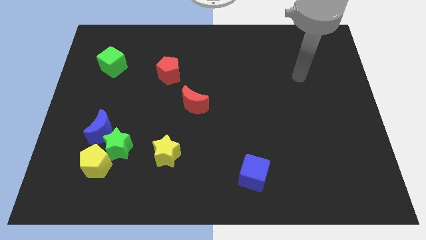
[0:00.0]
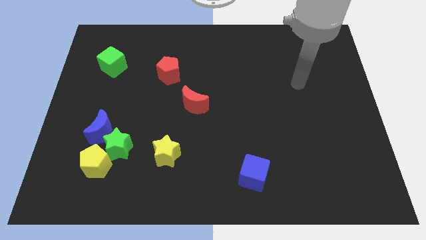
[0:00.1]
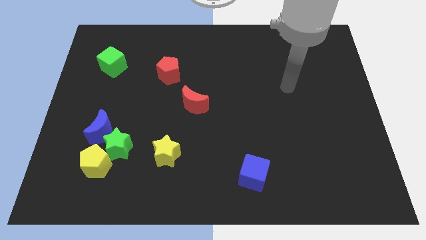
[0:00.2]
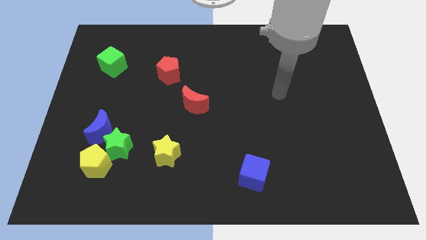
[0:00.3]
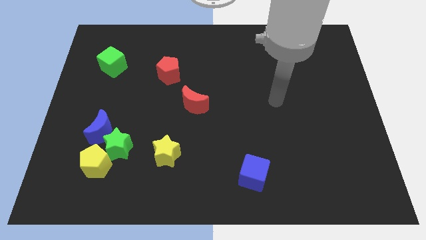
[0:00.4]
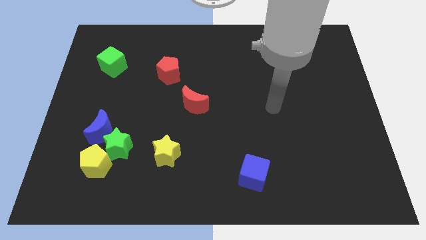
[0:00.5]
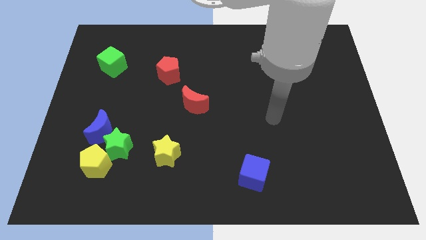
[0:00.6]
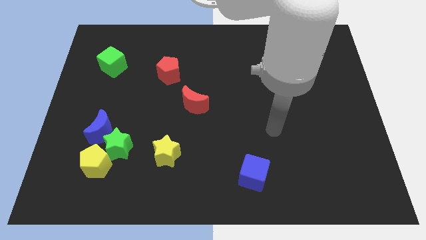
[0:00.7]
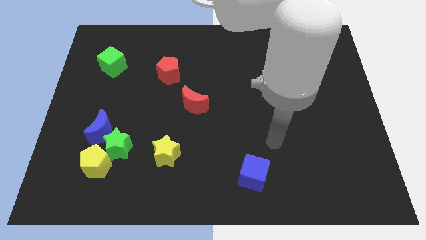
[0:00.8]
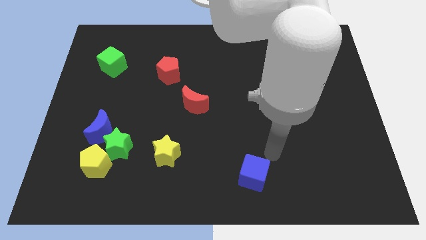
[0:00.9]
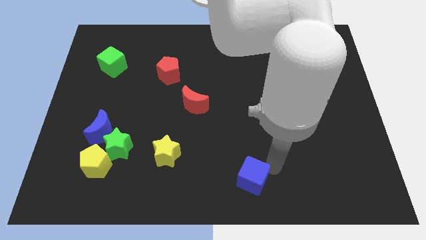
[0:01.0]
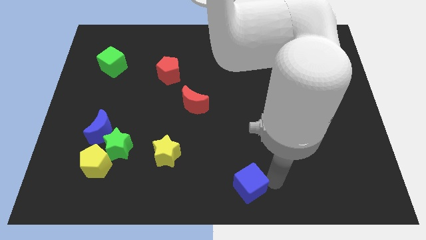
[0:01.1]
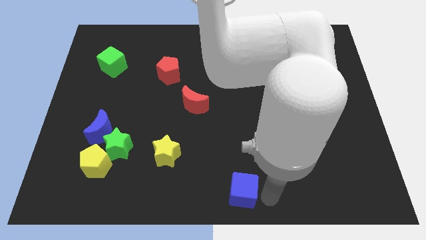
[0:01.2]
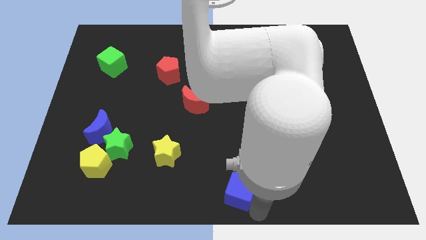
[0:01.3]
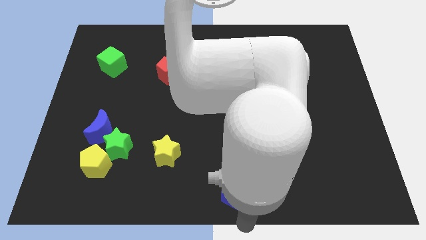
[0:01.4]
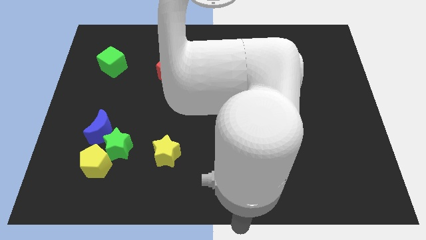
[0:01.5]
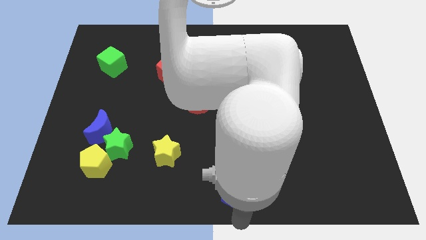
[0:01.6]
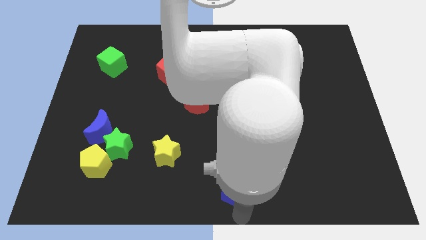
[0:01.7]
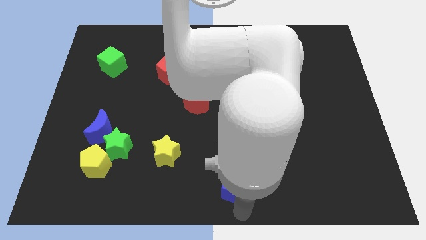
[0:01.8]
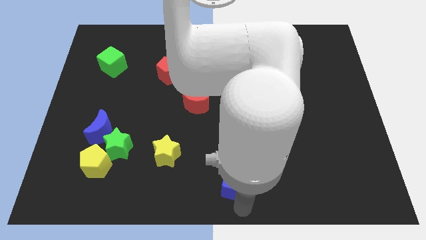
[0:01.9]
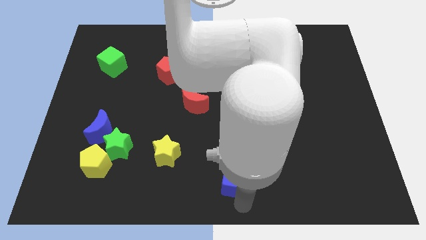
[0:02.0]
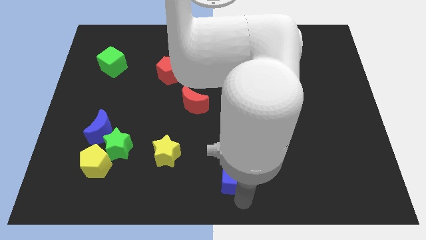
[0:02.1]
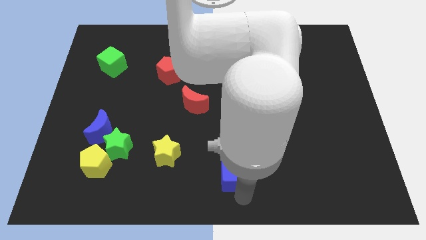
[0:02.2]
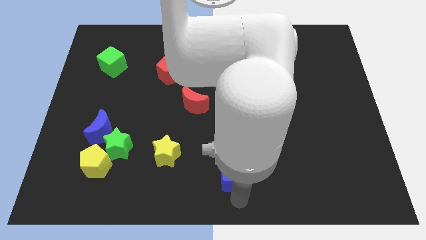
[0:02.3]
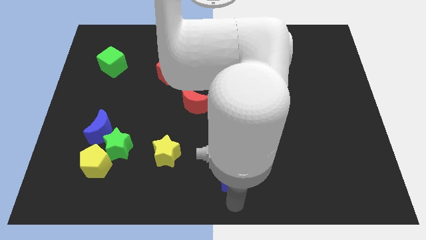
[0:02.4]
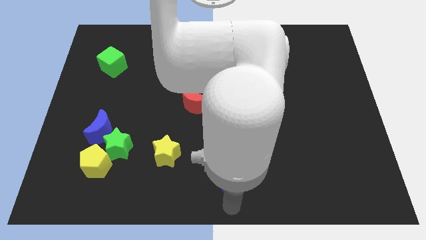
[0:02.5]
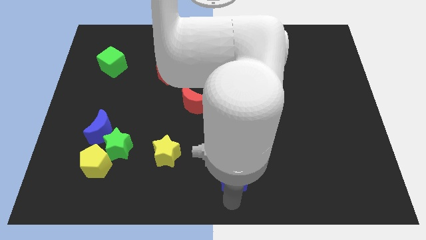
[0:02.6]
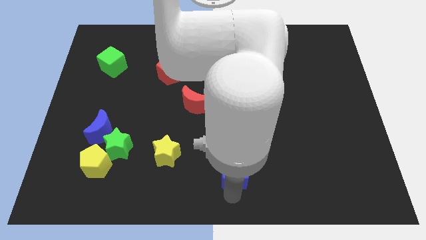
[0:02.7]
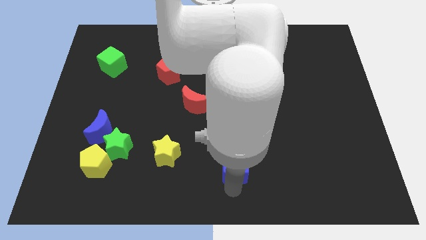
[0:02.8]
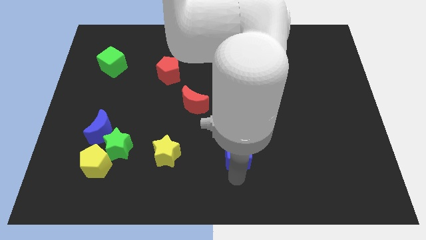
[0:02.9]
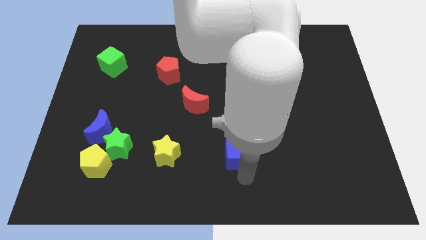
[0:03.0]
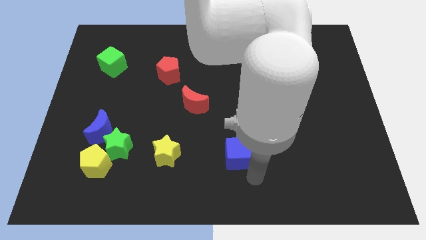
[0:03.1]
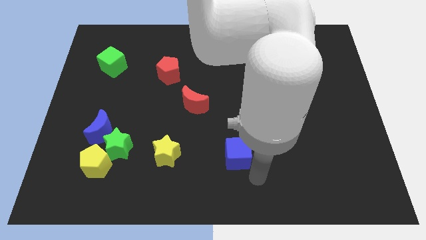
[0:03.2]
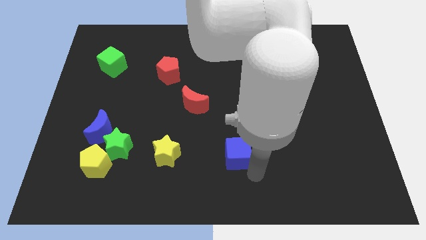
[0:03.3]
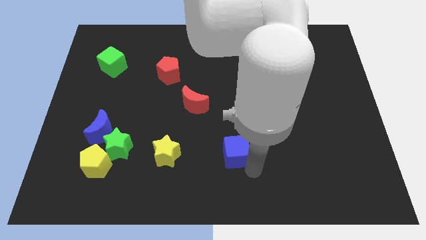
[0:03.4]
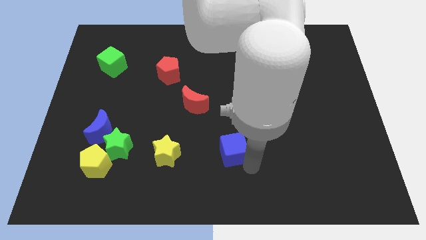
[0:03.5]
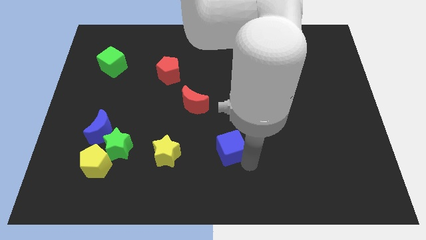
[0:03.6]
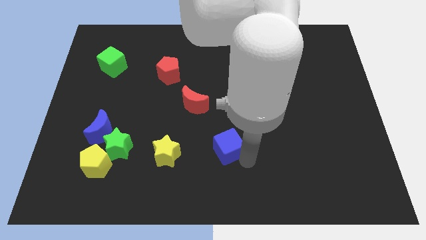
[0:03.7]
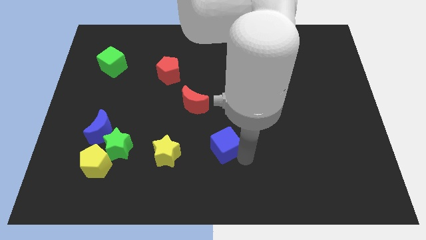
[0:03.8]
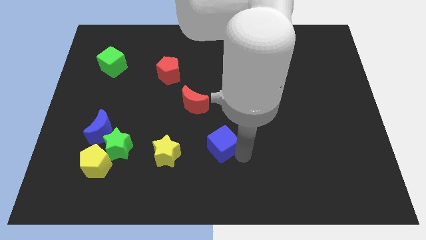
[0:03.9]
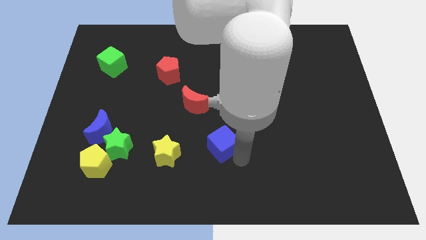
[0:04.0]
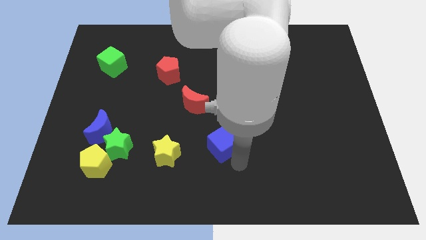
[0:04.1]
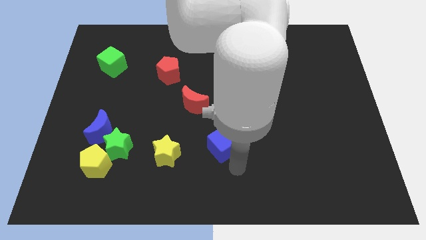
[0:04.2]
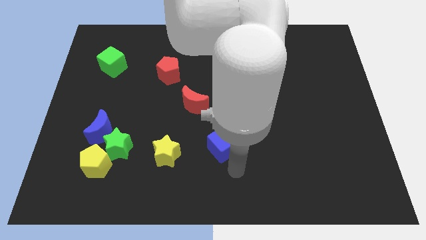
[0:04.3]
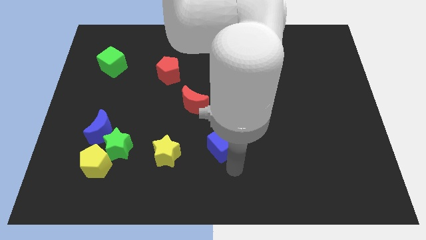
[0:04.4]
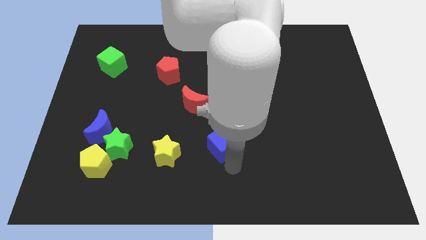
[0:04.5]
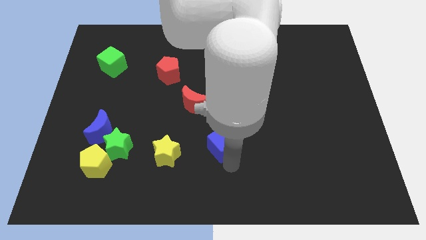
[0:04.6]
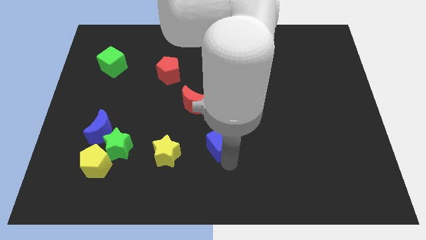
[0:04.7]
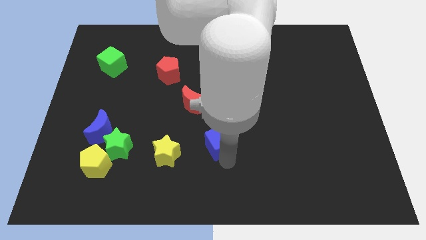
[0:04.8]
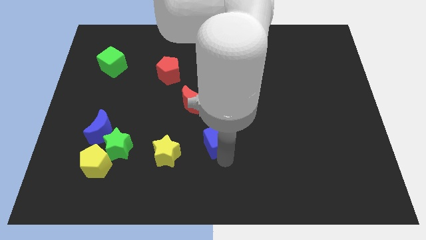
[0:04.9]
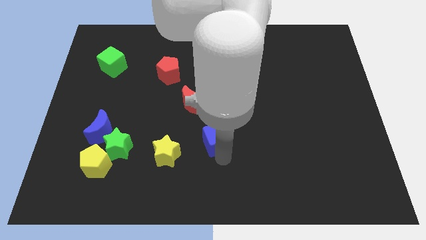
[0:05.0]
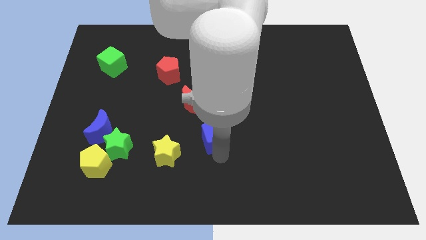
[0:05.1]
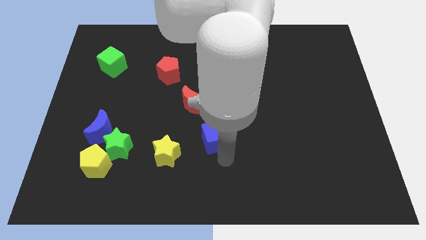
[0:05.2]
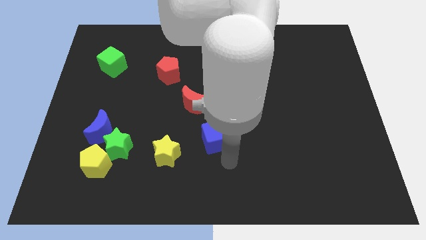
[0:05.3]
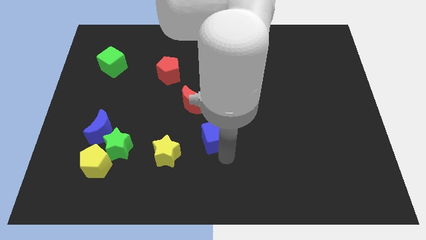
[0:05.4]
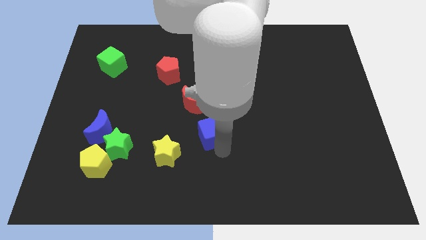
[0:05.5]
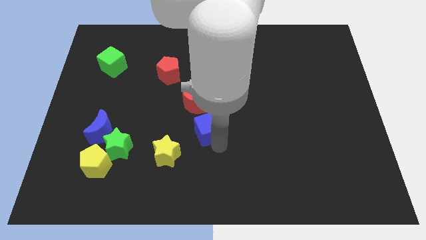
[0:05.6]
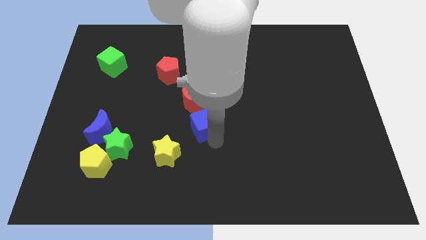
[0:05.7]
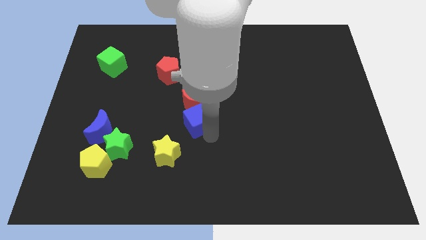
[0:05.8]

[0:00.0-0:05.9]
slide the blue cube next to the red moon
